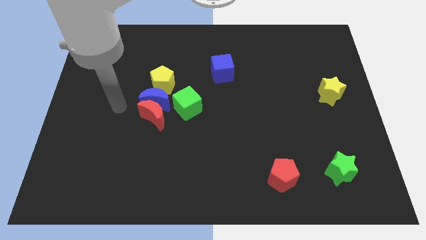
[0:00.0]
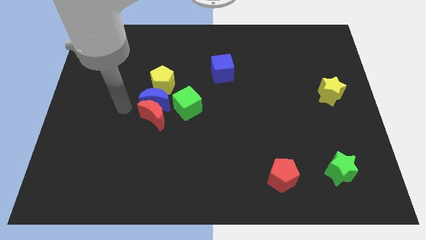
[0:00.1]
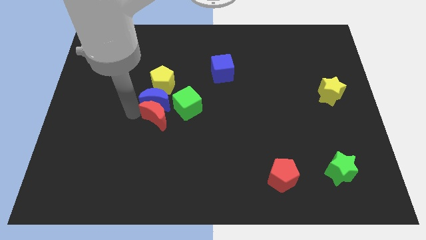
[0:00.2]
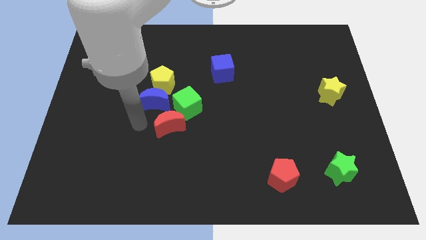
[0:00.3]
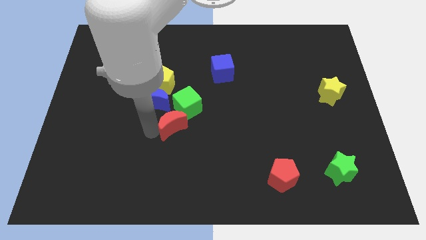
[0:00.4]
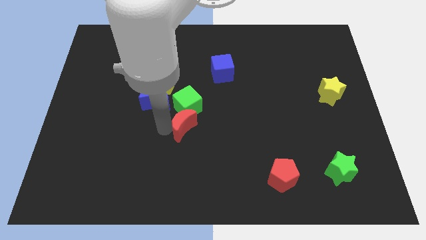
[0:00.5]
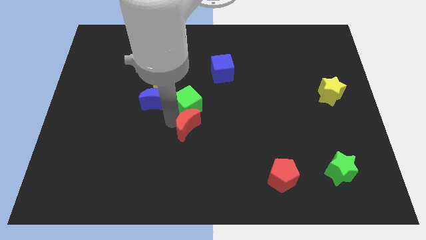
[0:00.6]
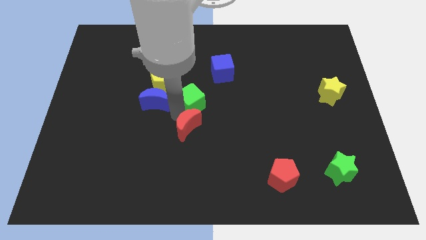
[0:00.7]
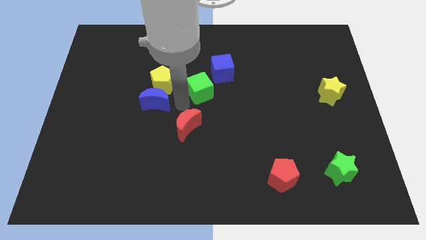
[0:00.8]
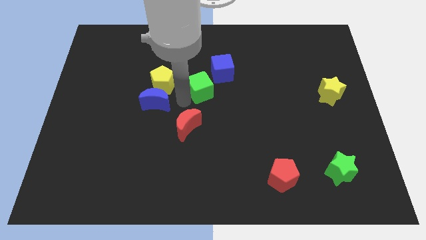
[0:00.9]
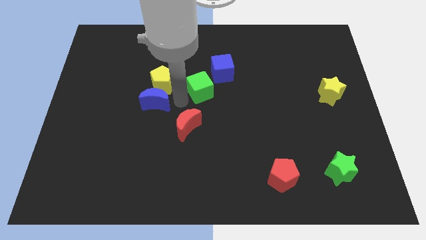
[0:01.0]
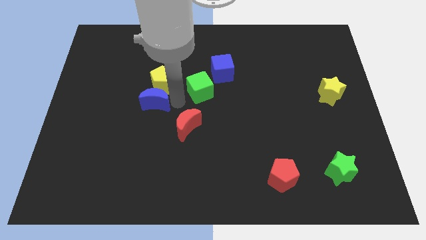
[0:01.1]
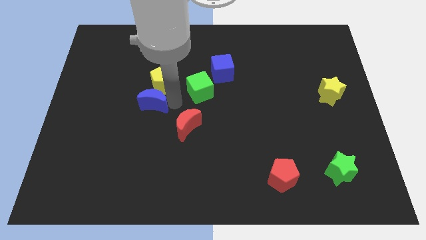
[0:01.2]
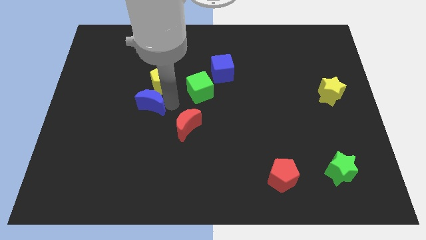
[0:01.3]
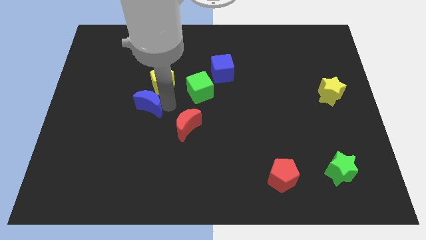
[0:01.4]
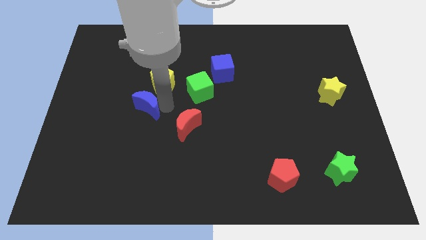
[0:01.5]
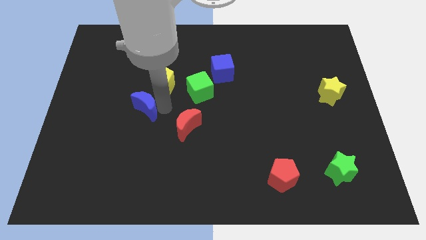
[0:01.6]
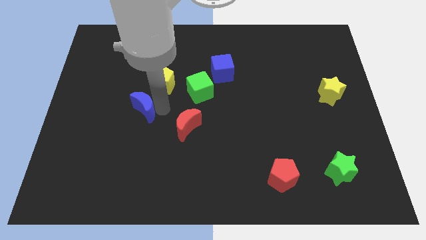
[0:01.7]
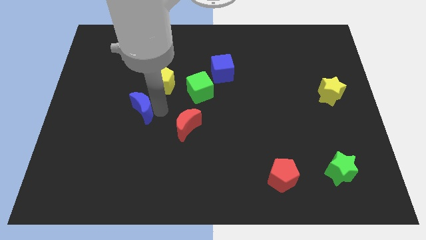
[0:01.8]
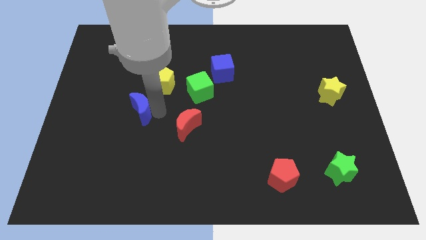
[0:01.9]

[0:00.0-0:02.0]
pull the blue moon apart from the group

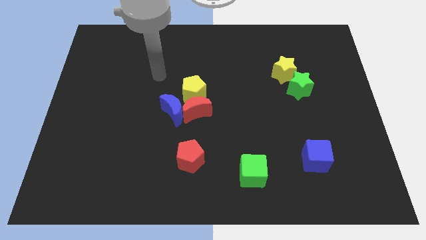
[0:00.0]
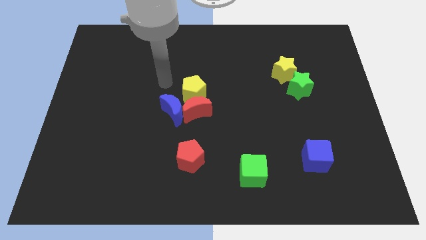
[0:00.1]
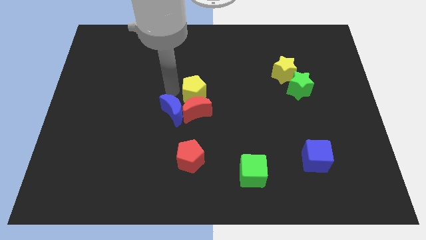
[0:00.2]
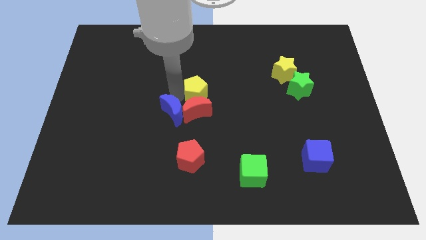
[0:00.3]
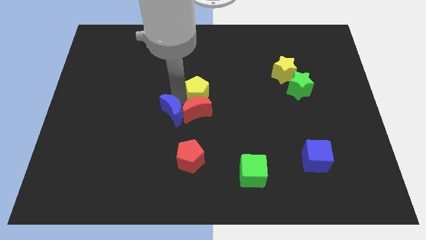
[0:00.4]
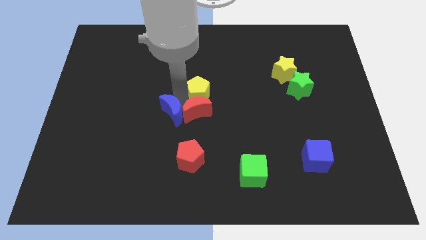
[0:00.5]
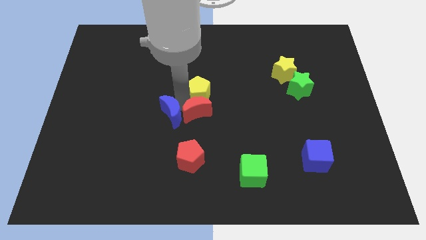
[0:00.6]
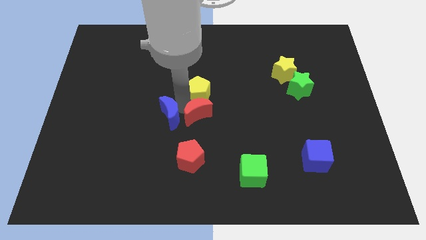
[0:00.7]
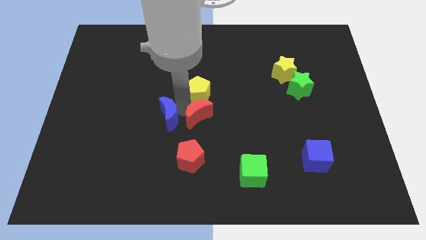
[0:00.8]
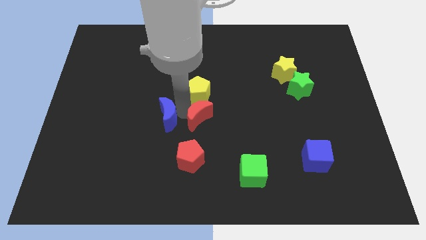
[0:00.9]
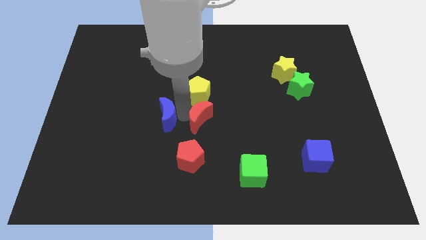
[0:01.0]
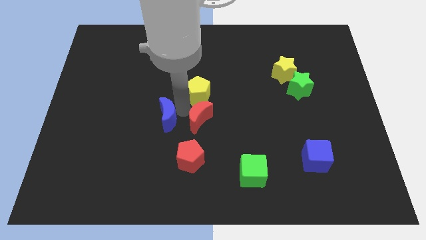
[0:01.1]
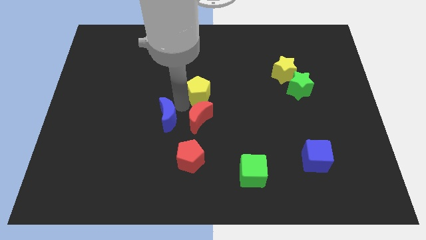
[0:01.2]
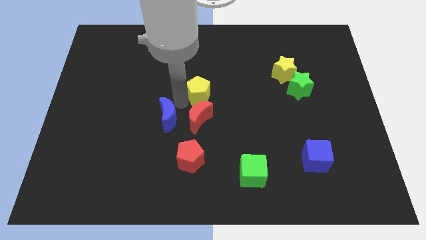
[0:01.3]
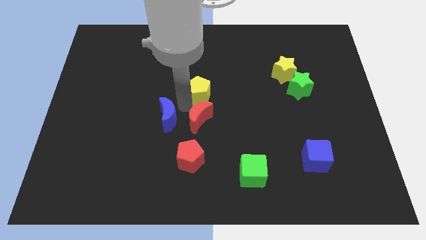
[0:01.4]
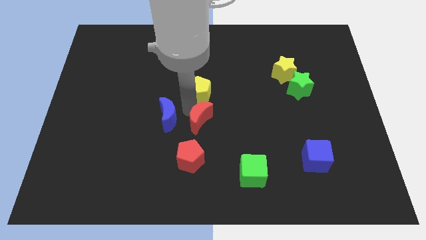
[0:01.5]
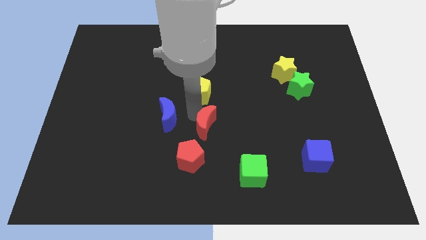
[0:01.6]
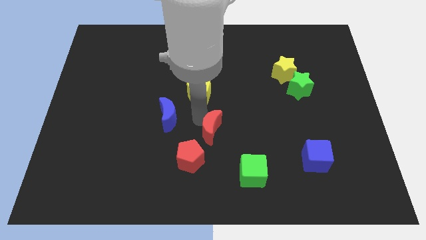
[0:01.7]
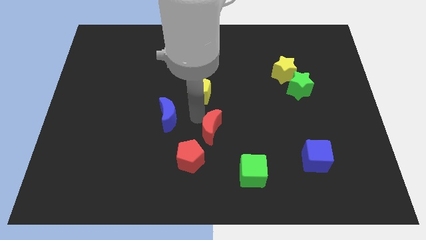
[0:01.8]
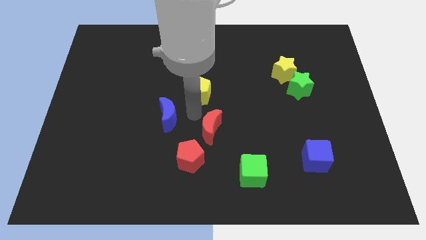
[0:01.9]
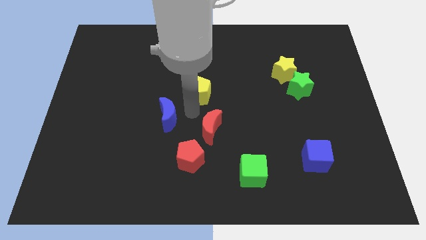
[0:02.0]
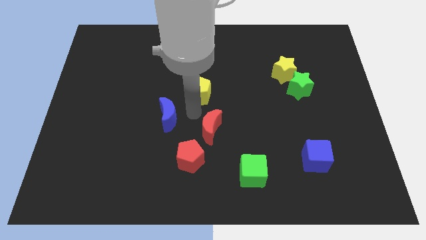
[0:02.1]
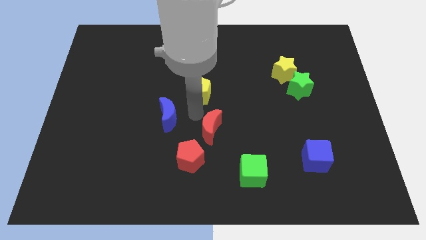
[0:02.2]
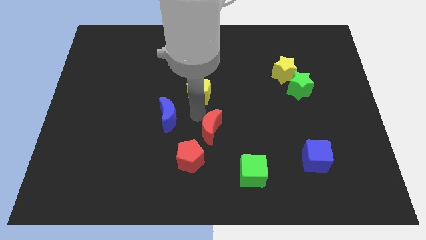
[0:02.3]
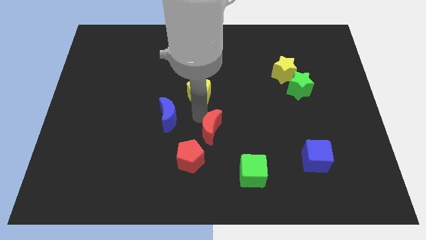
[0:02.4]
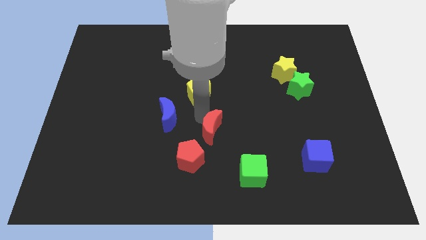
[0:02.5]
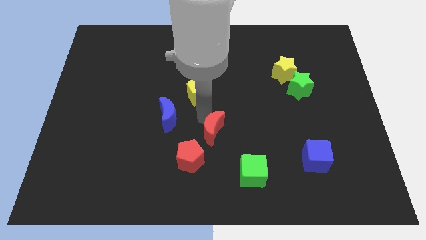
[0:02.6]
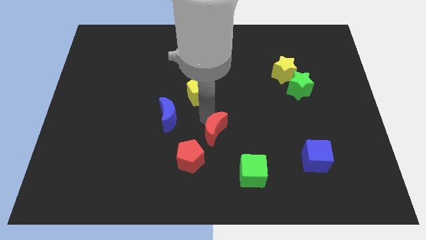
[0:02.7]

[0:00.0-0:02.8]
separate the red moon from the blue moon and yellow pentagon

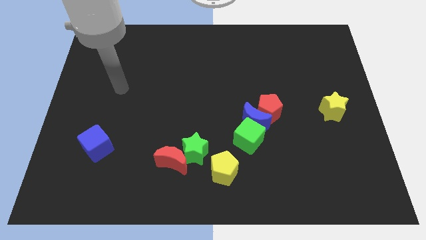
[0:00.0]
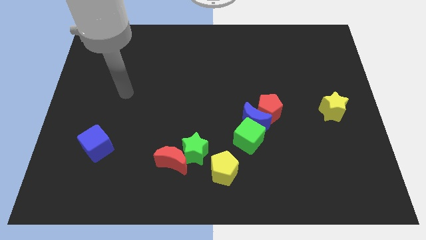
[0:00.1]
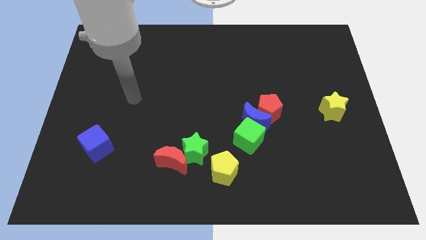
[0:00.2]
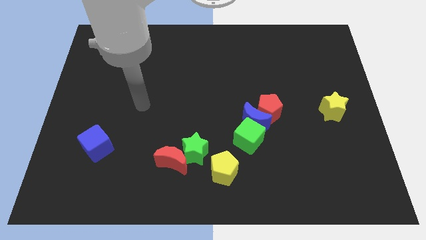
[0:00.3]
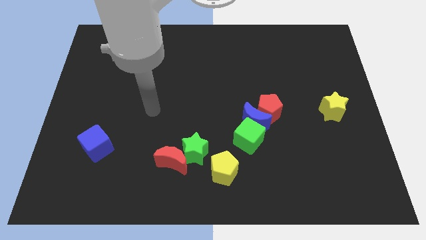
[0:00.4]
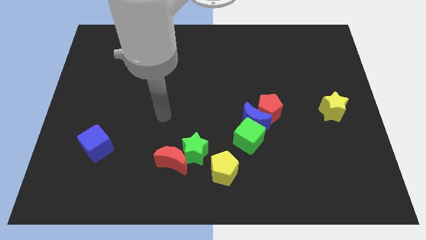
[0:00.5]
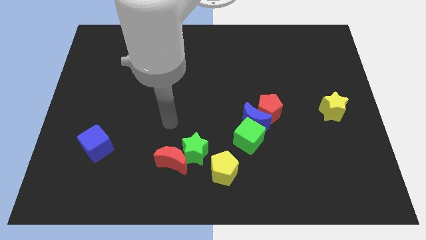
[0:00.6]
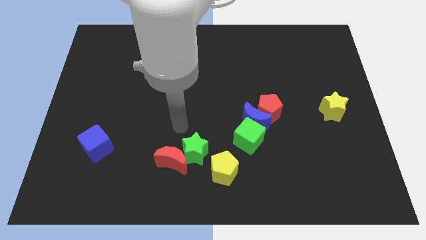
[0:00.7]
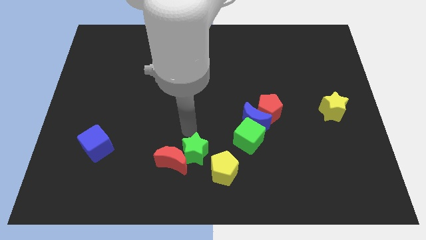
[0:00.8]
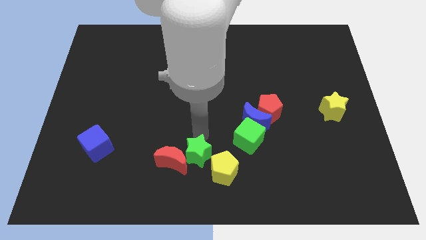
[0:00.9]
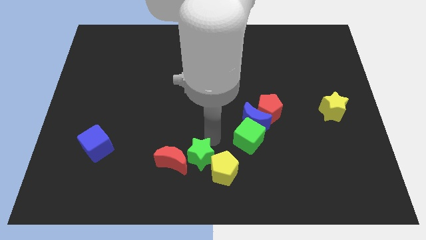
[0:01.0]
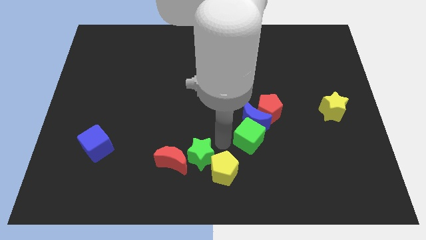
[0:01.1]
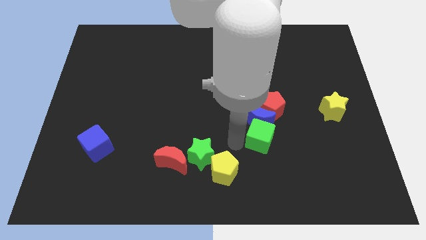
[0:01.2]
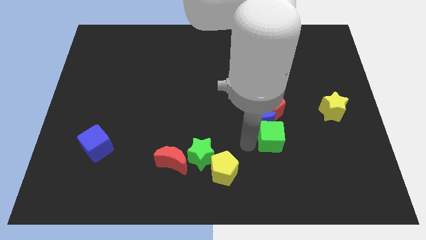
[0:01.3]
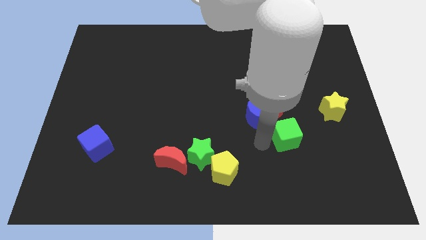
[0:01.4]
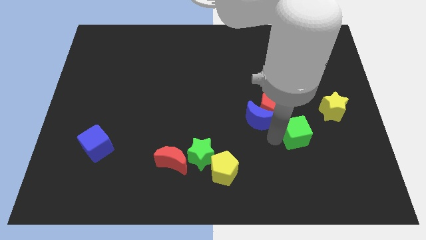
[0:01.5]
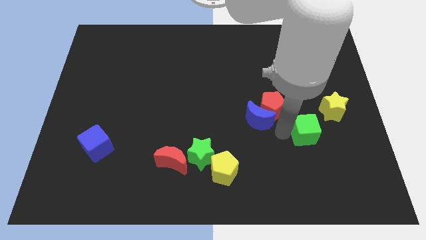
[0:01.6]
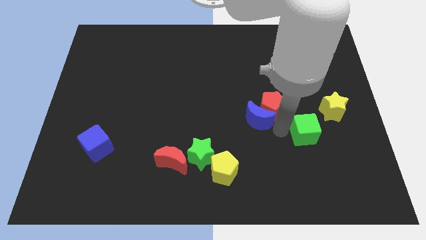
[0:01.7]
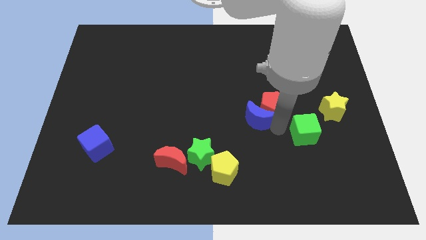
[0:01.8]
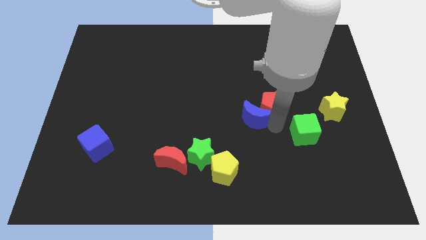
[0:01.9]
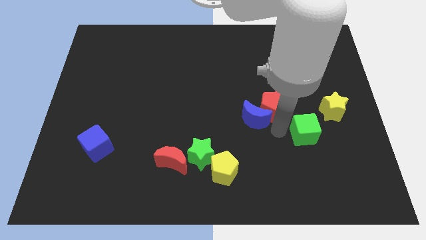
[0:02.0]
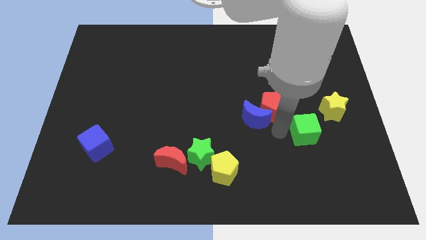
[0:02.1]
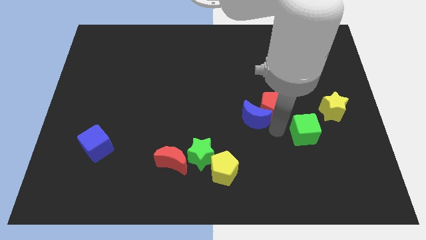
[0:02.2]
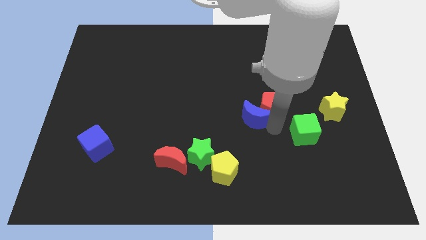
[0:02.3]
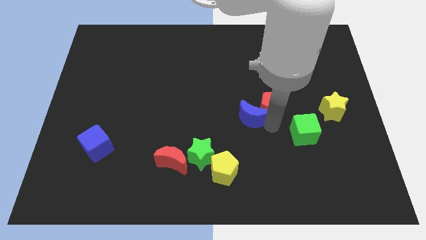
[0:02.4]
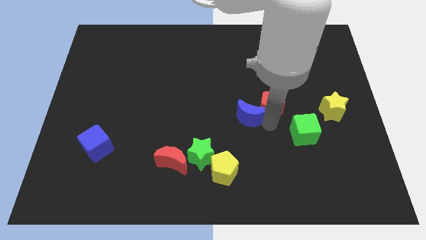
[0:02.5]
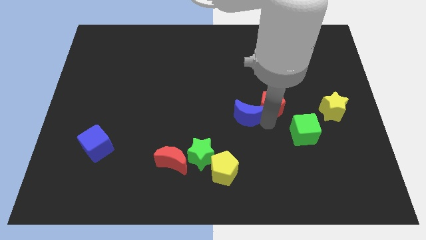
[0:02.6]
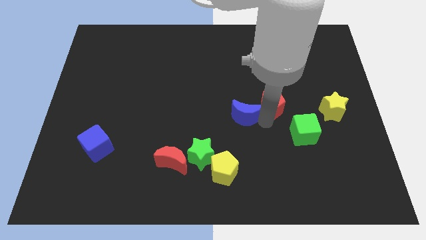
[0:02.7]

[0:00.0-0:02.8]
move the blue moon away from the red pentagon and green cube

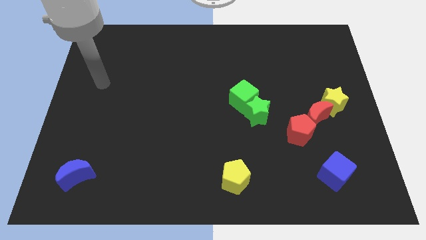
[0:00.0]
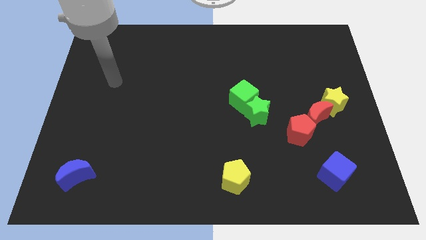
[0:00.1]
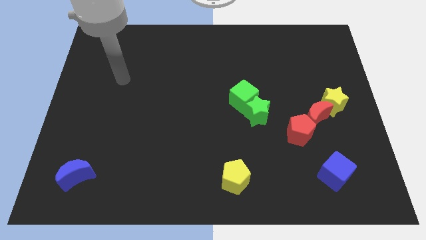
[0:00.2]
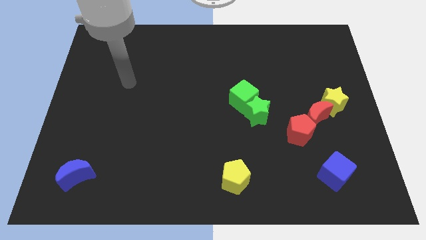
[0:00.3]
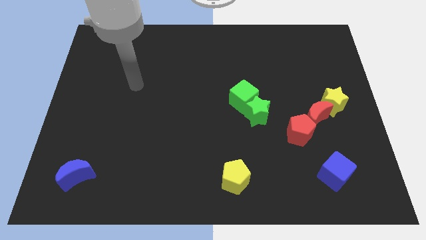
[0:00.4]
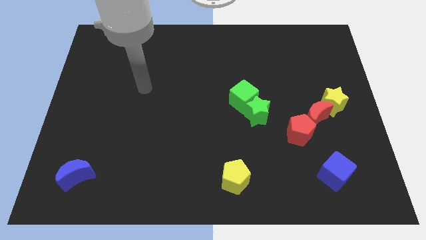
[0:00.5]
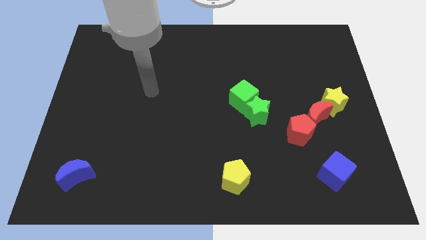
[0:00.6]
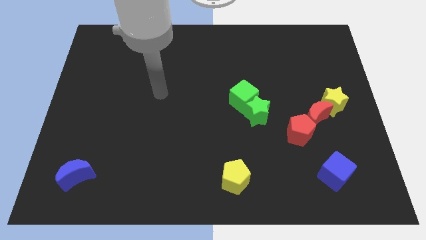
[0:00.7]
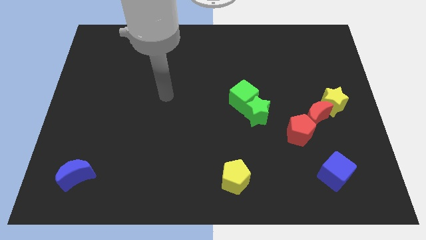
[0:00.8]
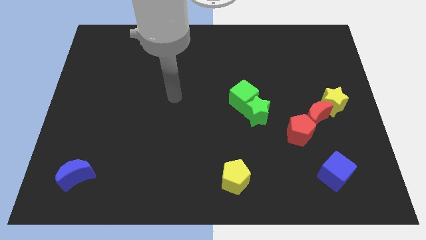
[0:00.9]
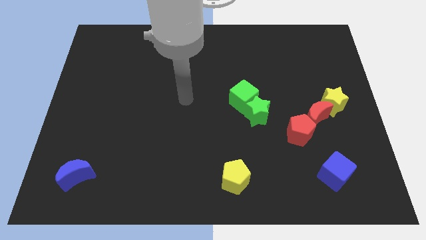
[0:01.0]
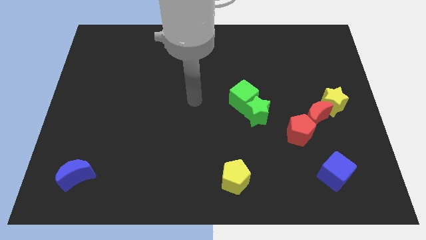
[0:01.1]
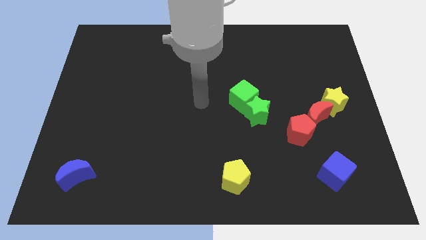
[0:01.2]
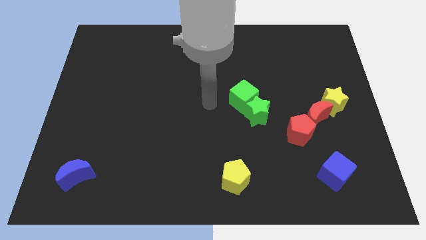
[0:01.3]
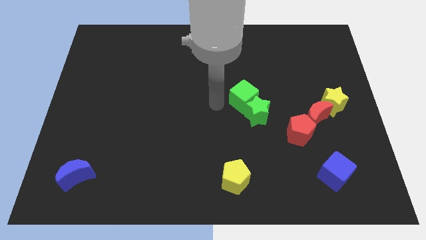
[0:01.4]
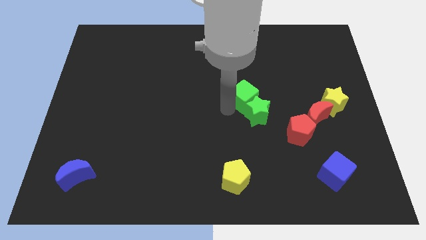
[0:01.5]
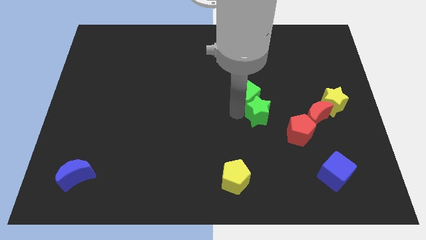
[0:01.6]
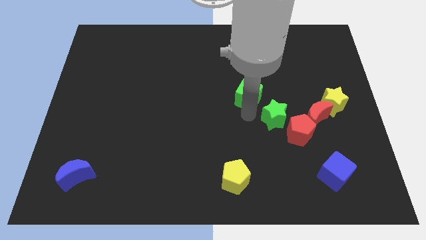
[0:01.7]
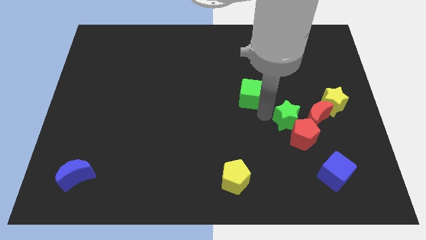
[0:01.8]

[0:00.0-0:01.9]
move the green cube away from the green star
